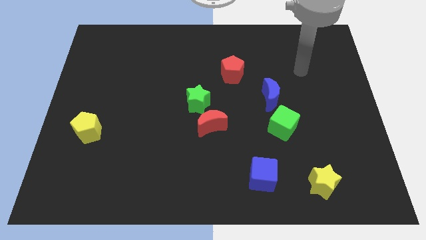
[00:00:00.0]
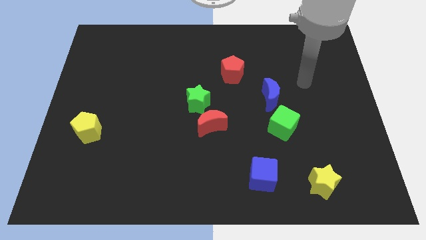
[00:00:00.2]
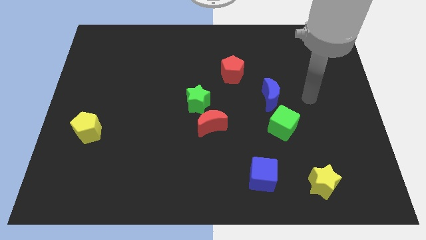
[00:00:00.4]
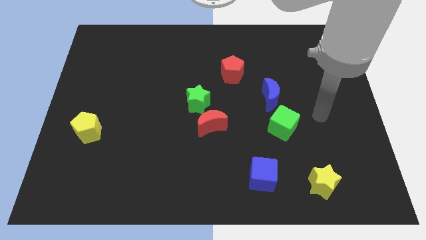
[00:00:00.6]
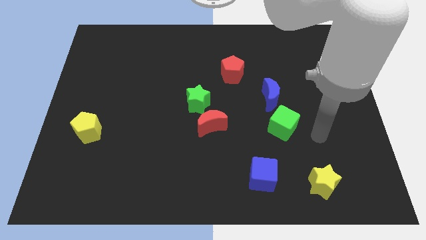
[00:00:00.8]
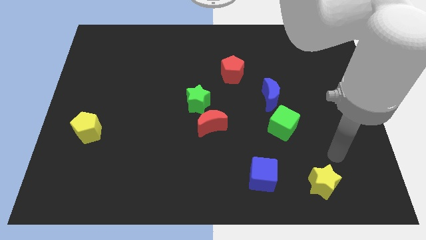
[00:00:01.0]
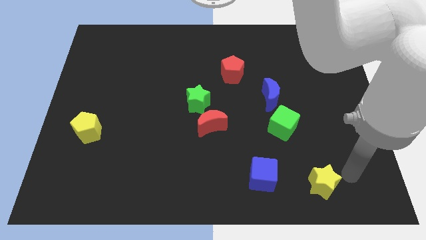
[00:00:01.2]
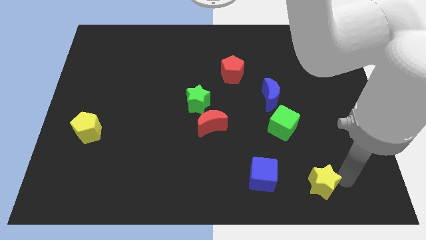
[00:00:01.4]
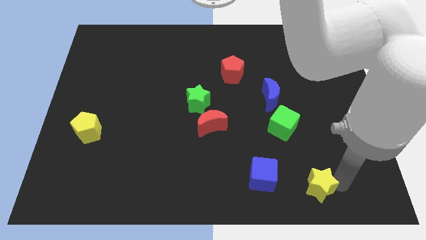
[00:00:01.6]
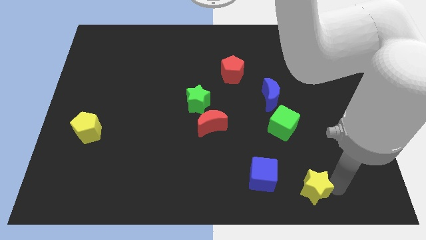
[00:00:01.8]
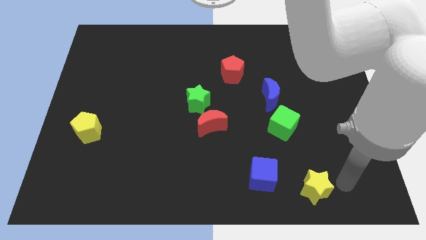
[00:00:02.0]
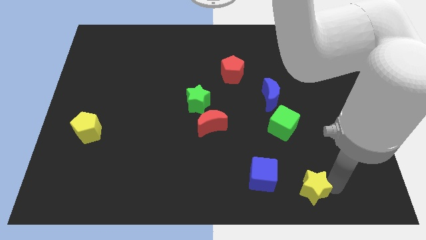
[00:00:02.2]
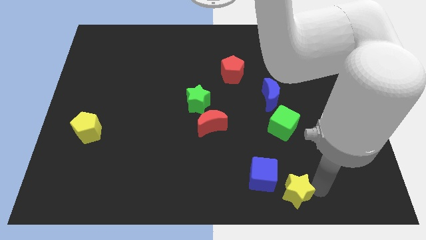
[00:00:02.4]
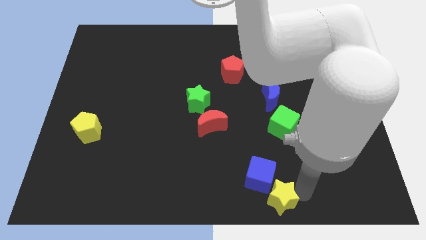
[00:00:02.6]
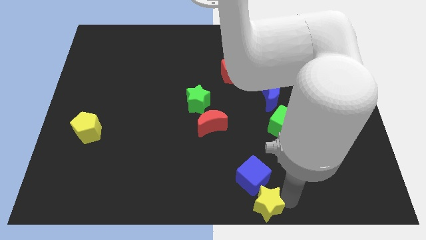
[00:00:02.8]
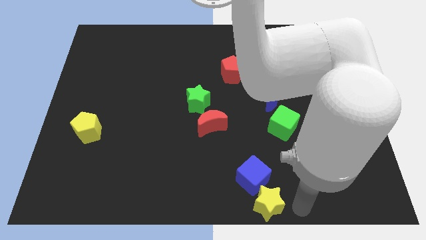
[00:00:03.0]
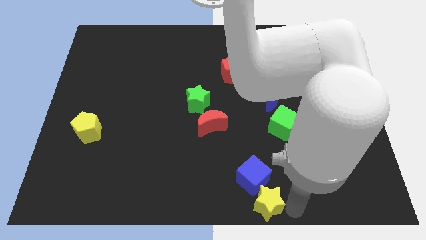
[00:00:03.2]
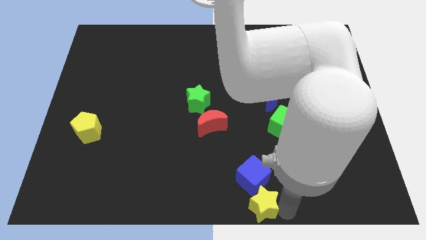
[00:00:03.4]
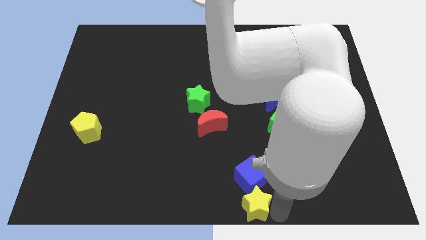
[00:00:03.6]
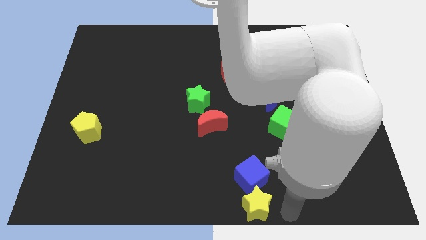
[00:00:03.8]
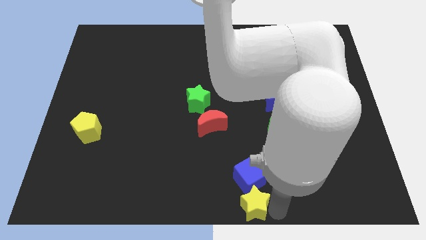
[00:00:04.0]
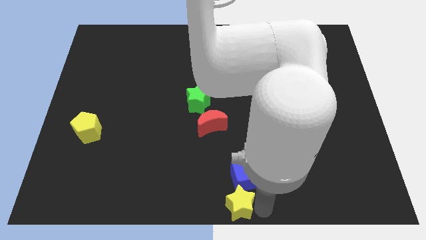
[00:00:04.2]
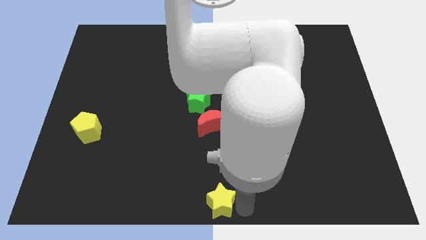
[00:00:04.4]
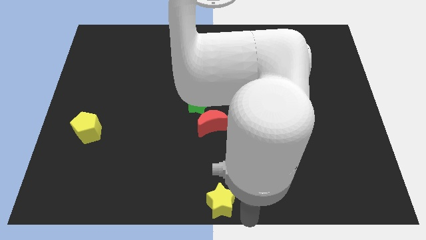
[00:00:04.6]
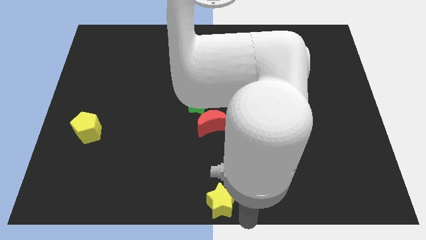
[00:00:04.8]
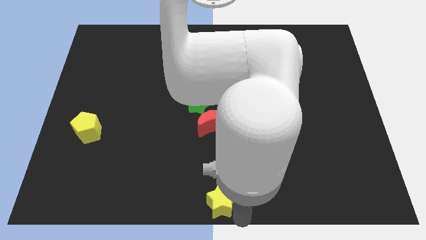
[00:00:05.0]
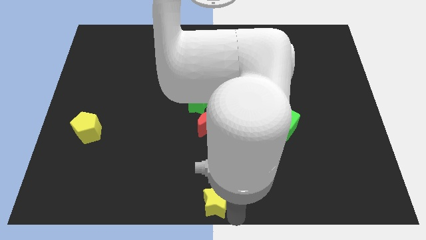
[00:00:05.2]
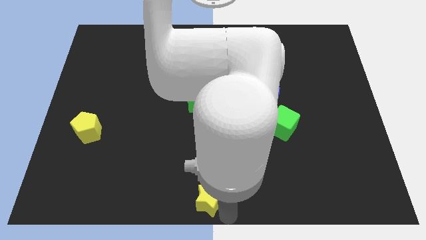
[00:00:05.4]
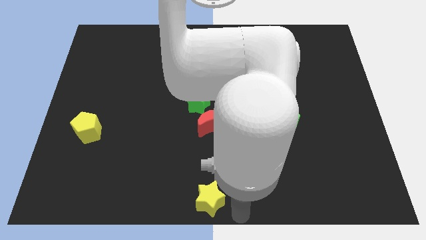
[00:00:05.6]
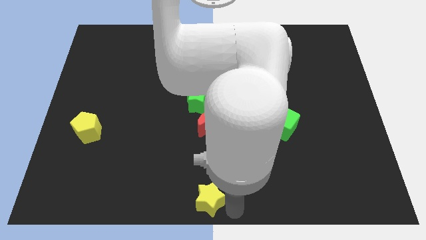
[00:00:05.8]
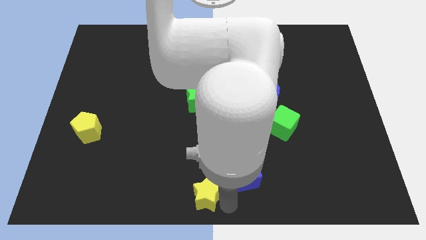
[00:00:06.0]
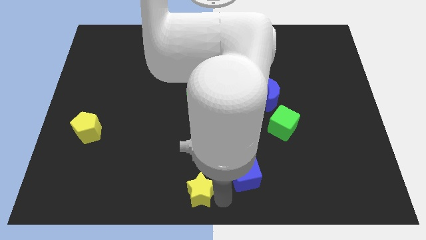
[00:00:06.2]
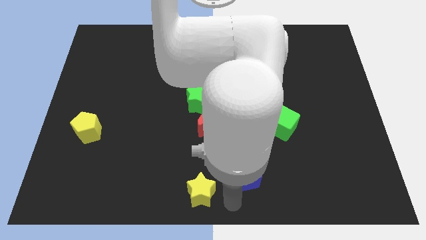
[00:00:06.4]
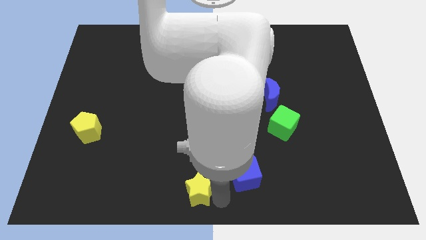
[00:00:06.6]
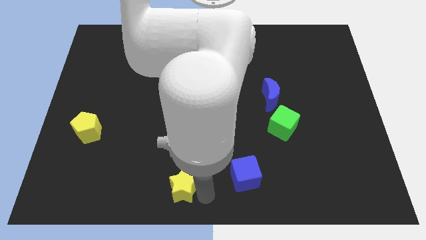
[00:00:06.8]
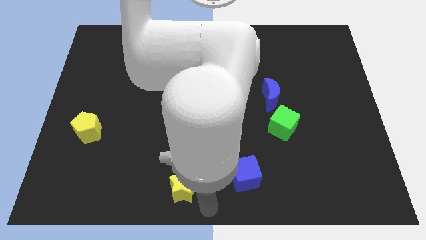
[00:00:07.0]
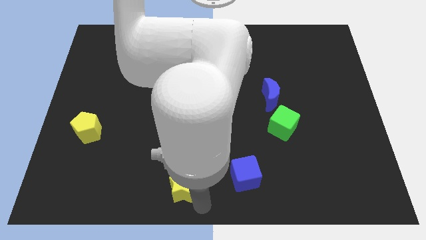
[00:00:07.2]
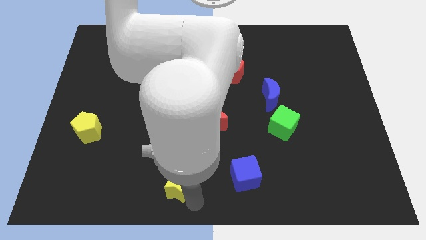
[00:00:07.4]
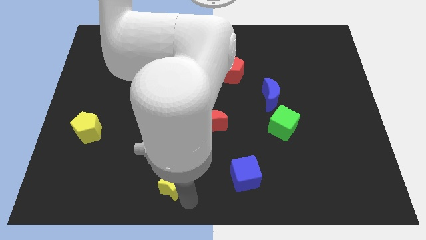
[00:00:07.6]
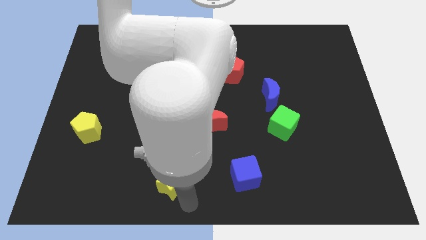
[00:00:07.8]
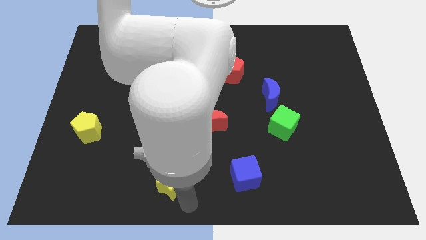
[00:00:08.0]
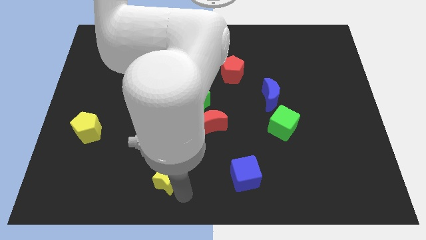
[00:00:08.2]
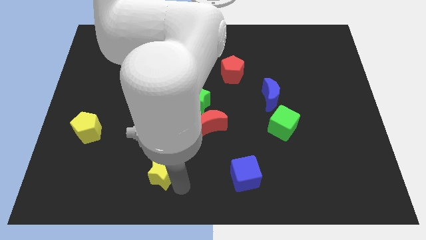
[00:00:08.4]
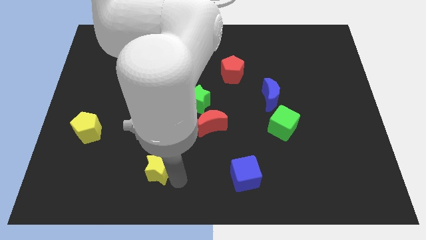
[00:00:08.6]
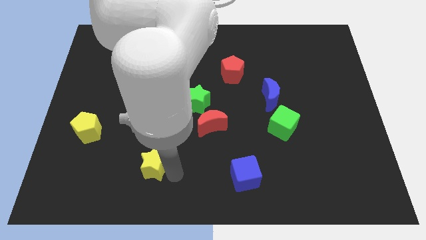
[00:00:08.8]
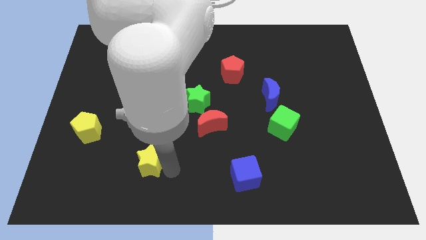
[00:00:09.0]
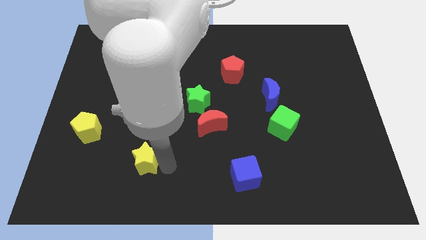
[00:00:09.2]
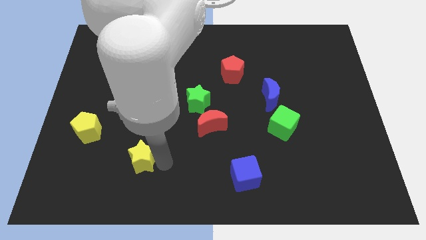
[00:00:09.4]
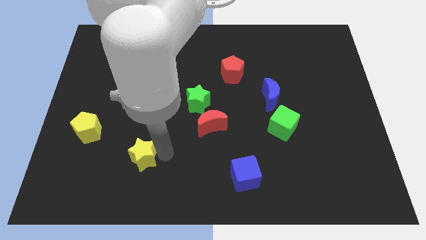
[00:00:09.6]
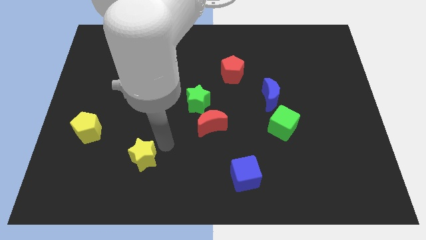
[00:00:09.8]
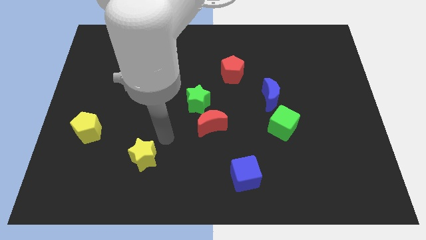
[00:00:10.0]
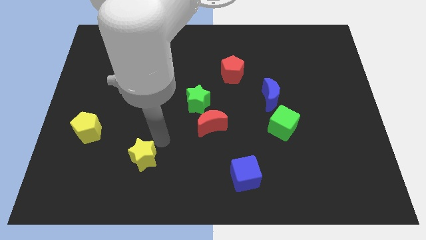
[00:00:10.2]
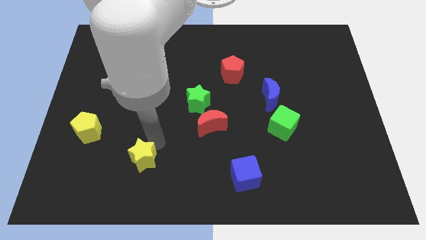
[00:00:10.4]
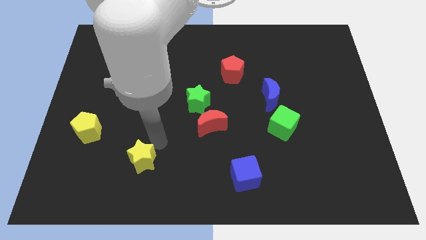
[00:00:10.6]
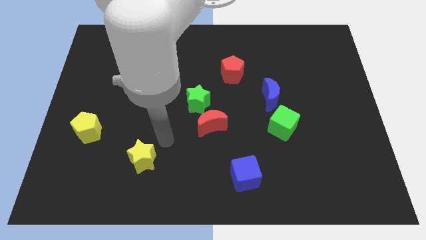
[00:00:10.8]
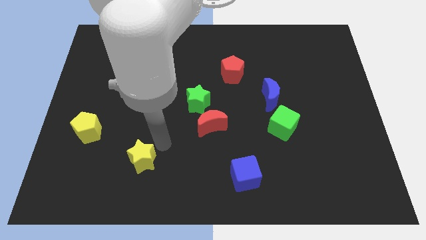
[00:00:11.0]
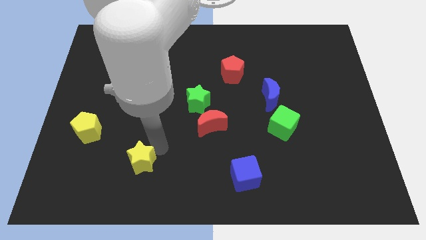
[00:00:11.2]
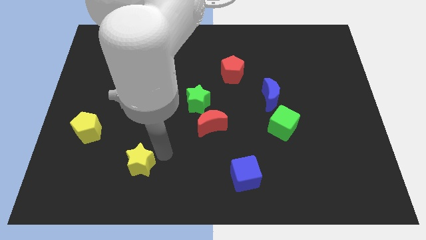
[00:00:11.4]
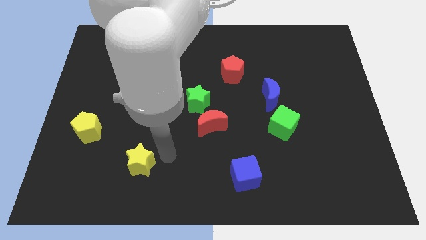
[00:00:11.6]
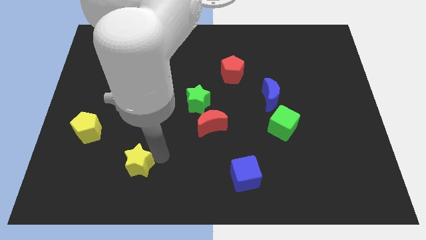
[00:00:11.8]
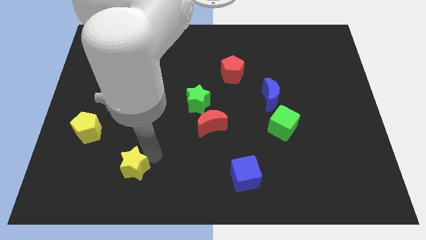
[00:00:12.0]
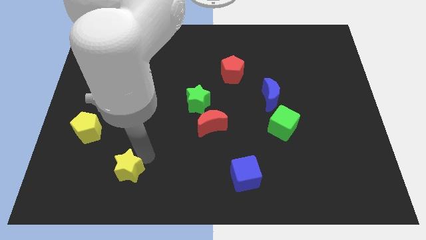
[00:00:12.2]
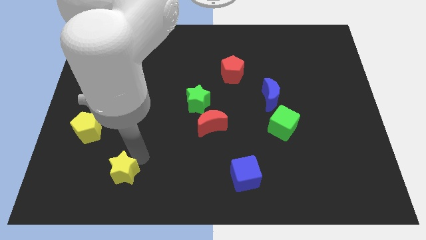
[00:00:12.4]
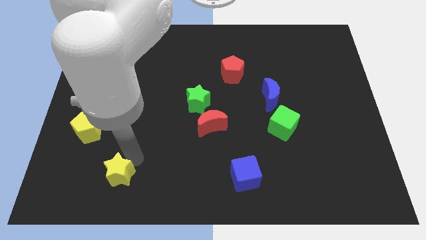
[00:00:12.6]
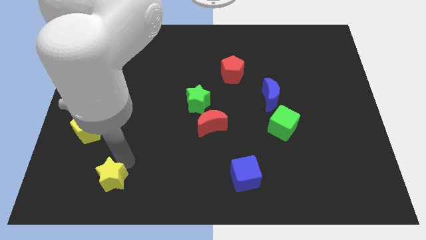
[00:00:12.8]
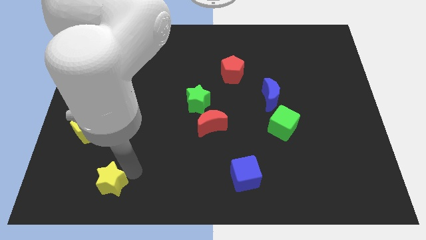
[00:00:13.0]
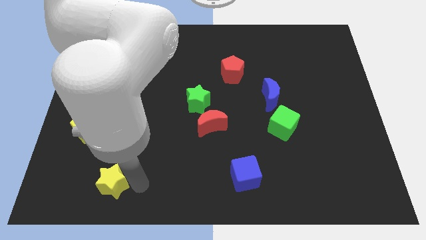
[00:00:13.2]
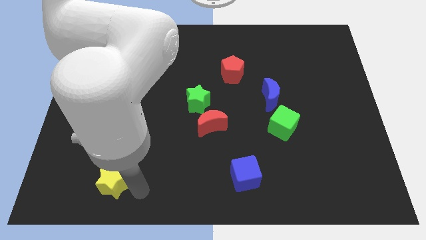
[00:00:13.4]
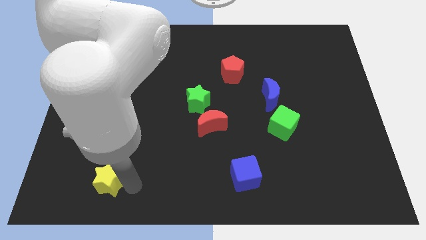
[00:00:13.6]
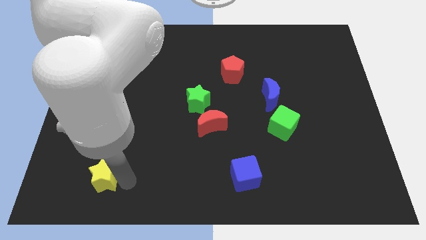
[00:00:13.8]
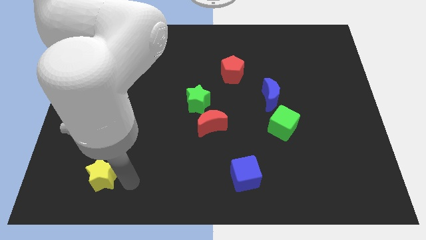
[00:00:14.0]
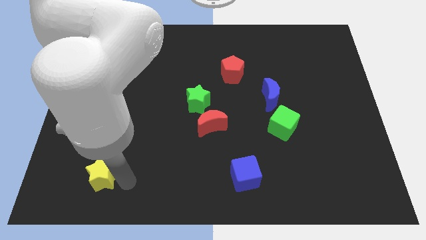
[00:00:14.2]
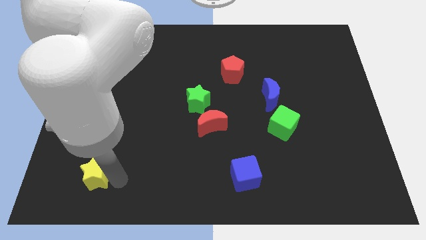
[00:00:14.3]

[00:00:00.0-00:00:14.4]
push the yellow star below the yellow pentagon
